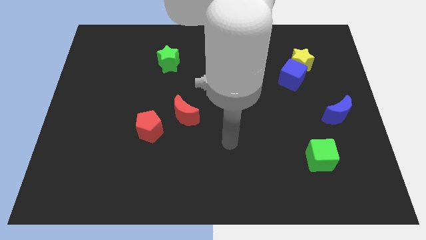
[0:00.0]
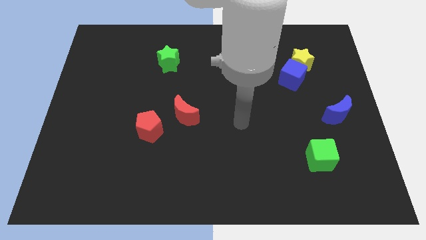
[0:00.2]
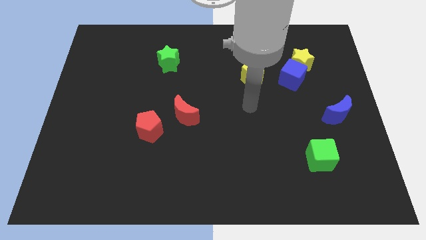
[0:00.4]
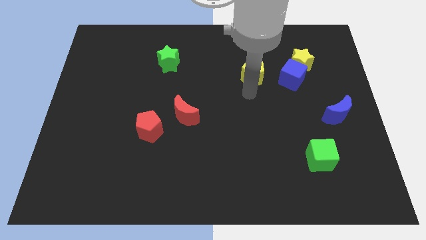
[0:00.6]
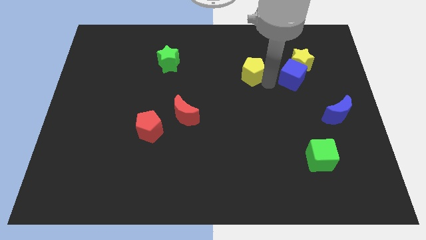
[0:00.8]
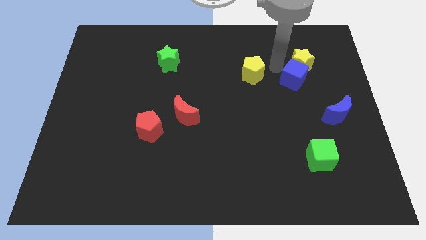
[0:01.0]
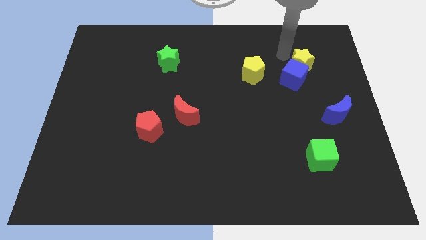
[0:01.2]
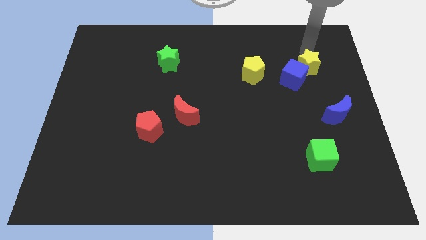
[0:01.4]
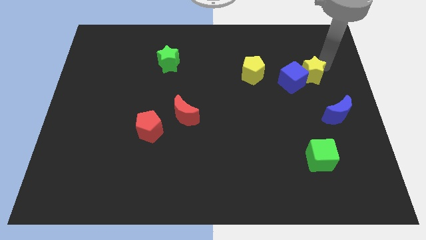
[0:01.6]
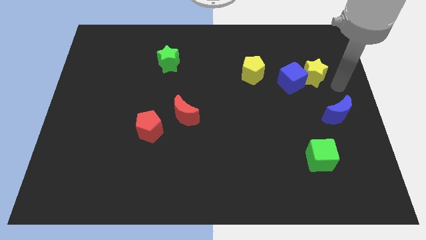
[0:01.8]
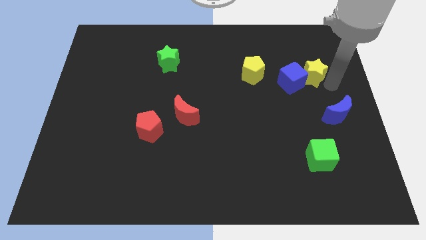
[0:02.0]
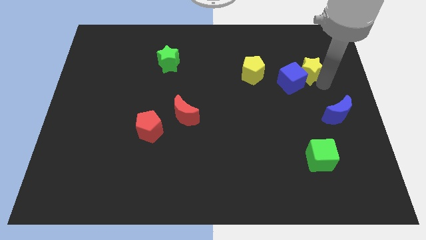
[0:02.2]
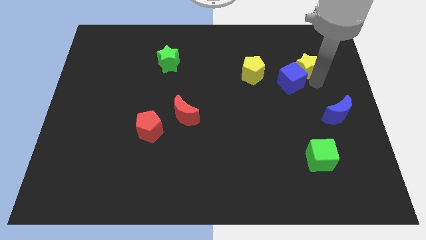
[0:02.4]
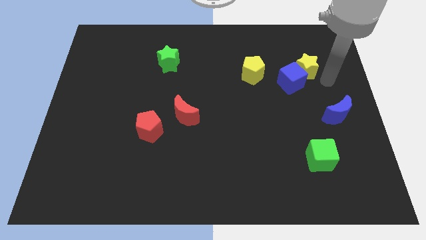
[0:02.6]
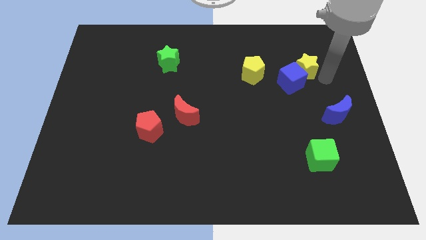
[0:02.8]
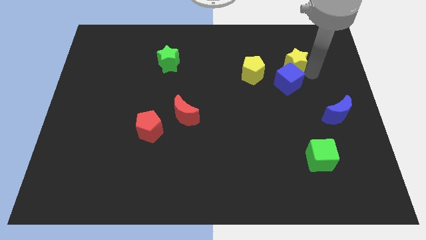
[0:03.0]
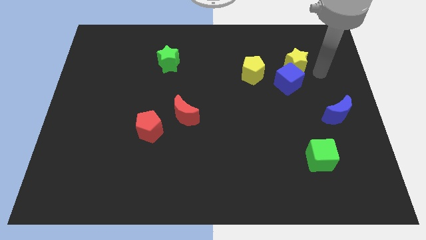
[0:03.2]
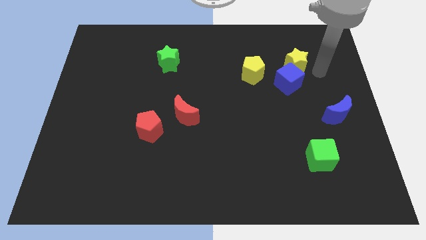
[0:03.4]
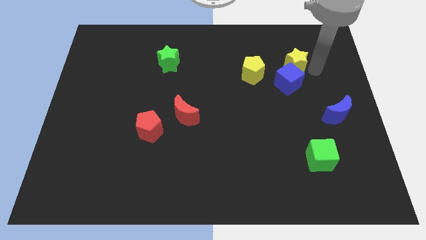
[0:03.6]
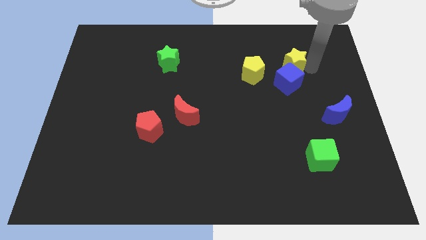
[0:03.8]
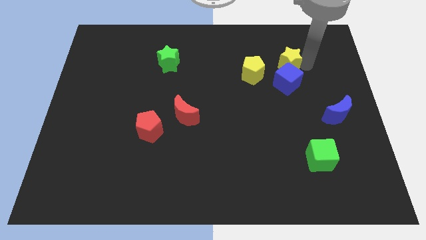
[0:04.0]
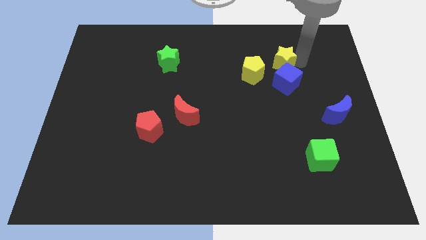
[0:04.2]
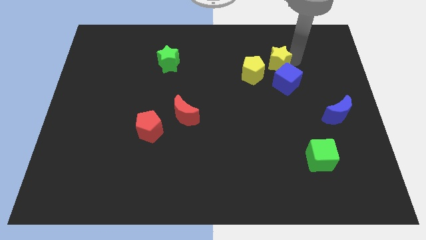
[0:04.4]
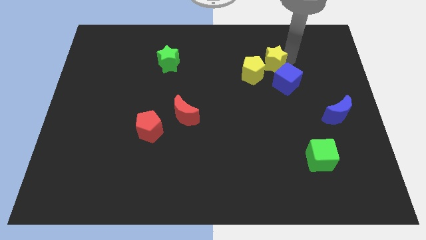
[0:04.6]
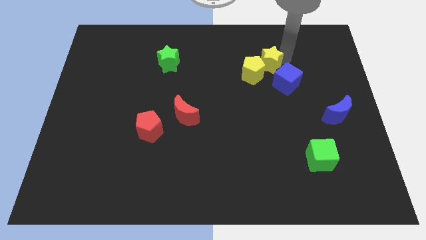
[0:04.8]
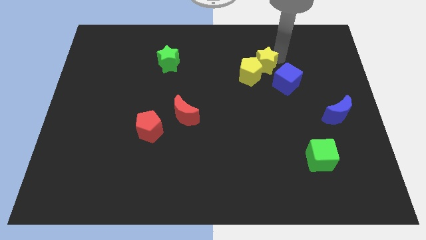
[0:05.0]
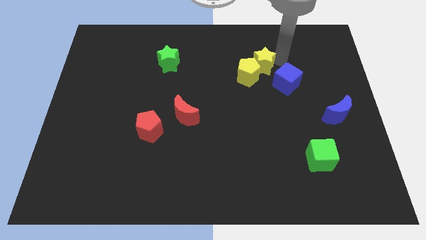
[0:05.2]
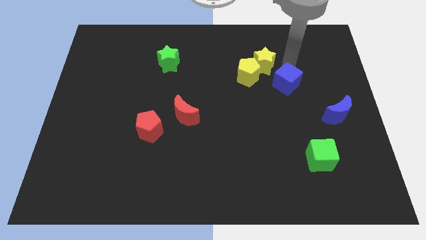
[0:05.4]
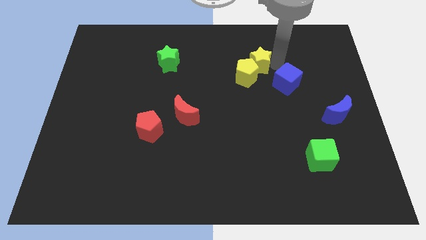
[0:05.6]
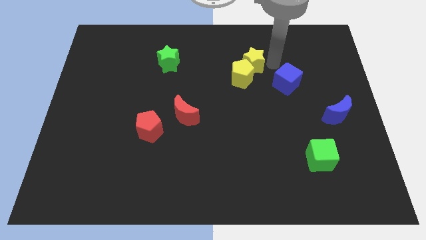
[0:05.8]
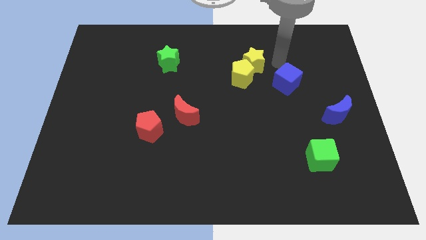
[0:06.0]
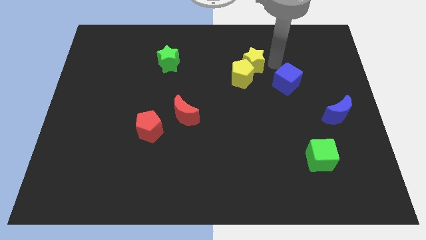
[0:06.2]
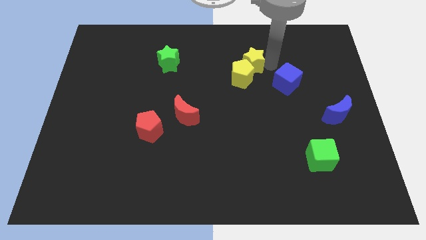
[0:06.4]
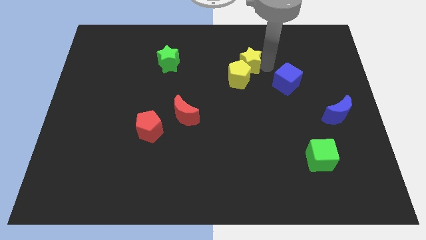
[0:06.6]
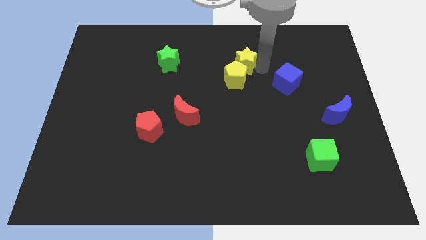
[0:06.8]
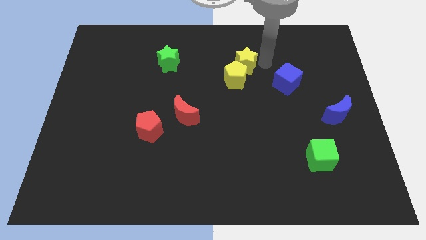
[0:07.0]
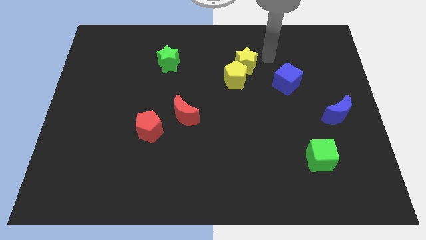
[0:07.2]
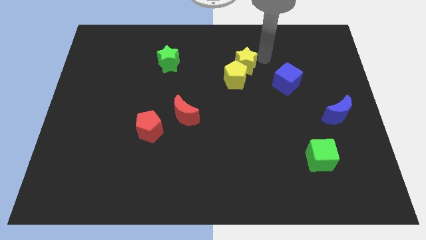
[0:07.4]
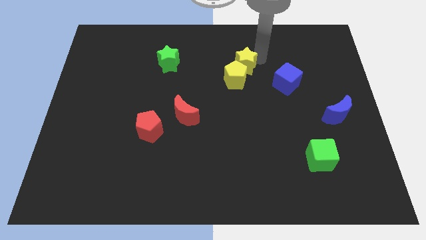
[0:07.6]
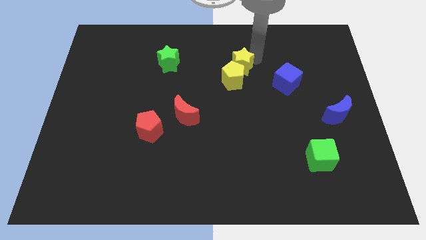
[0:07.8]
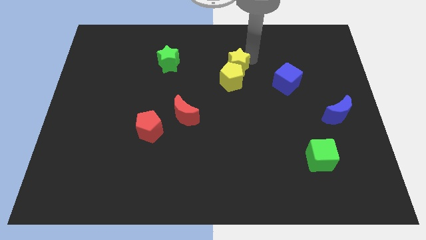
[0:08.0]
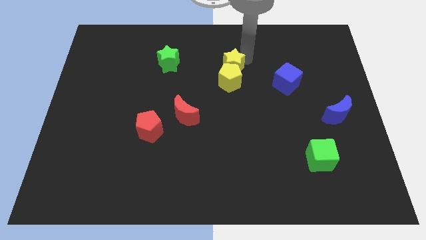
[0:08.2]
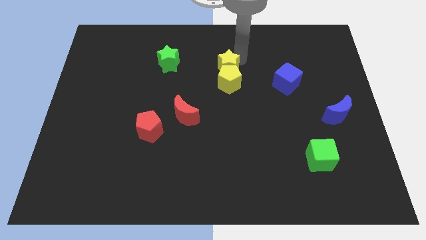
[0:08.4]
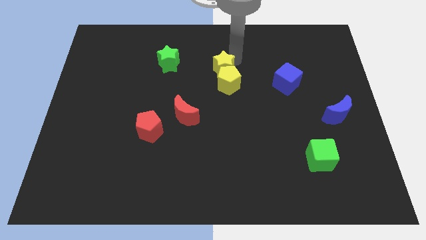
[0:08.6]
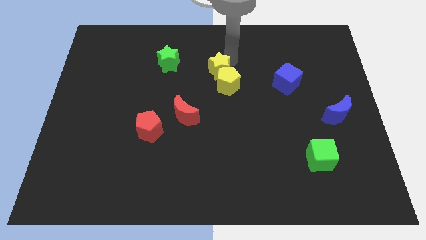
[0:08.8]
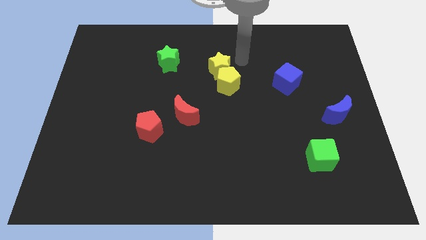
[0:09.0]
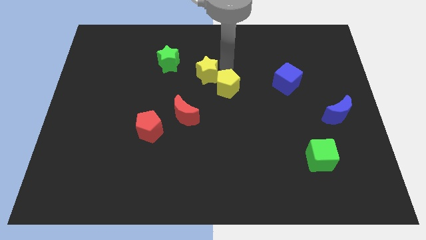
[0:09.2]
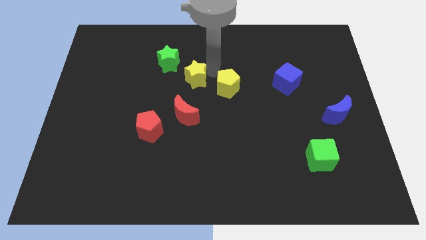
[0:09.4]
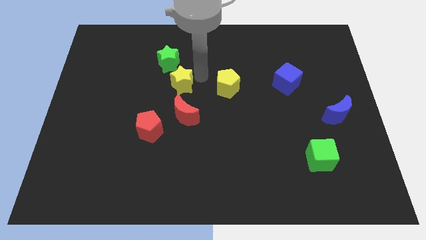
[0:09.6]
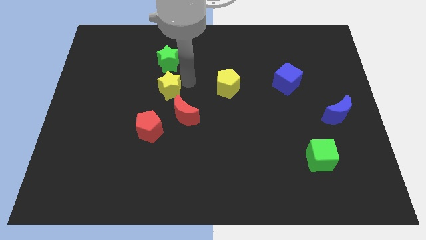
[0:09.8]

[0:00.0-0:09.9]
put the yellow star to the top side of the red pentagon

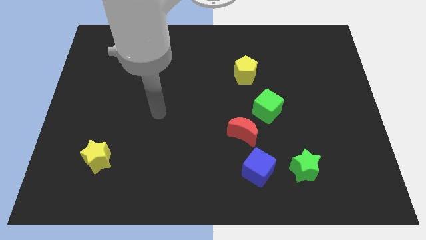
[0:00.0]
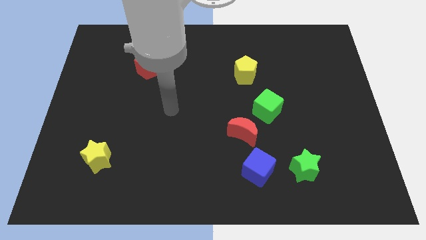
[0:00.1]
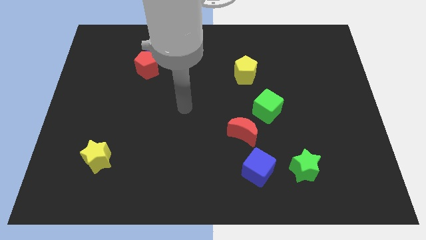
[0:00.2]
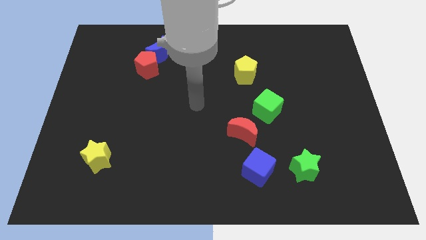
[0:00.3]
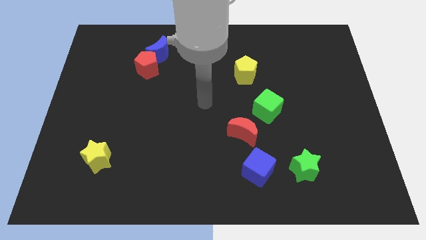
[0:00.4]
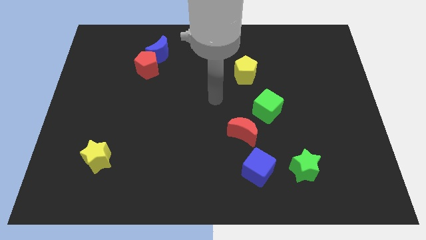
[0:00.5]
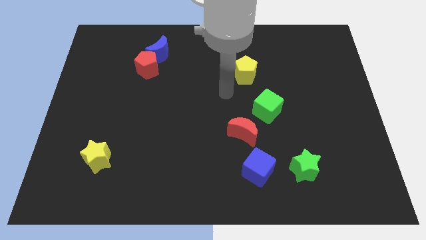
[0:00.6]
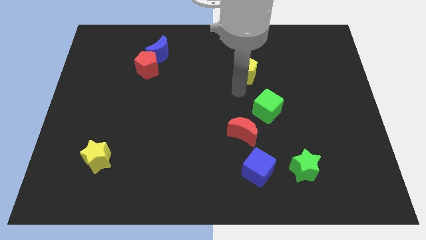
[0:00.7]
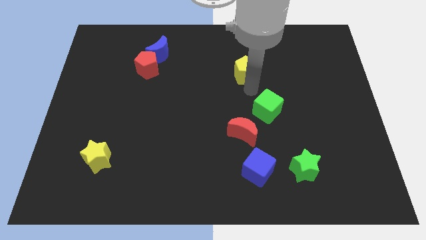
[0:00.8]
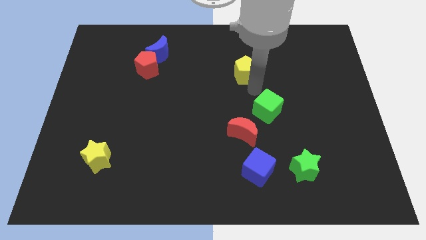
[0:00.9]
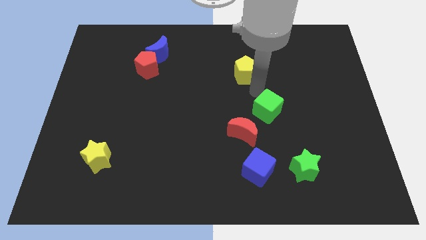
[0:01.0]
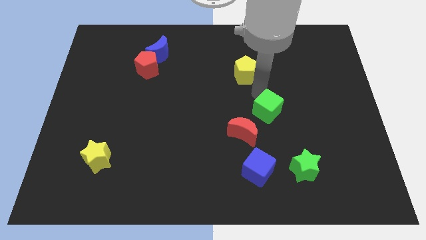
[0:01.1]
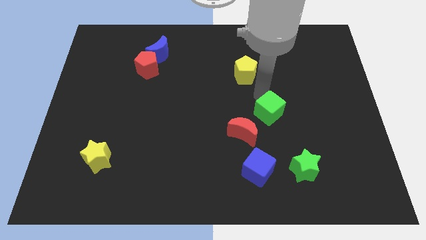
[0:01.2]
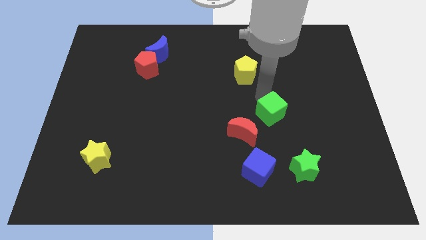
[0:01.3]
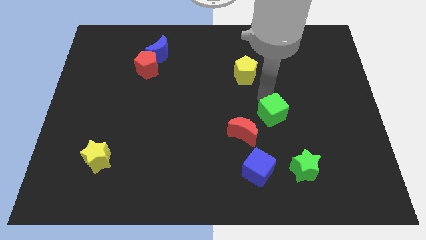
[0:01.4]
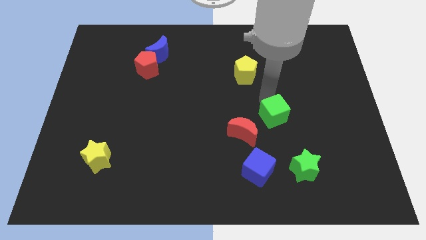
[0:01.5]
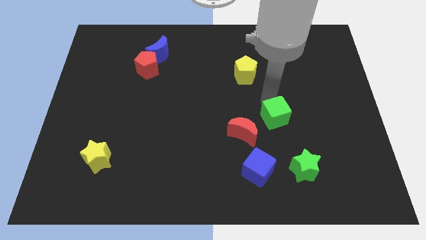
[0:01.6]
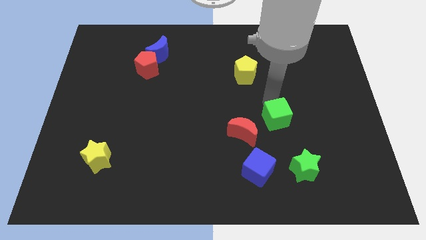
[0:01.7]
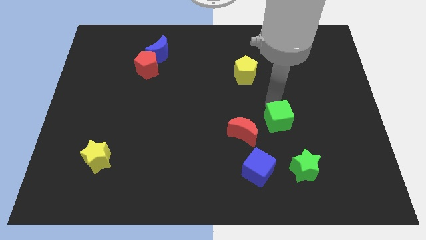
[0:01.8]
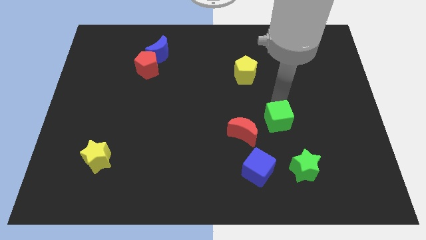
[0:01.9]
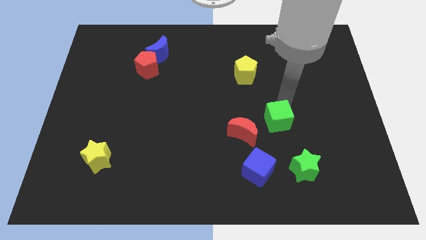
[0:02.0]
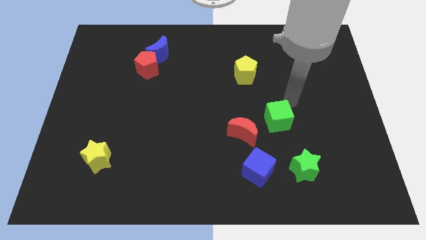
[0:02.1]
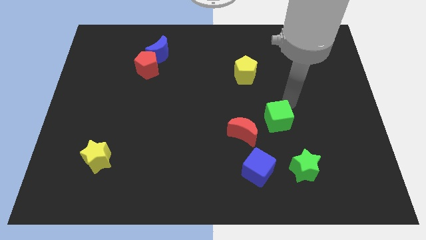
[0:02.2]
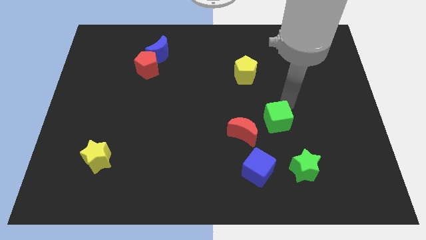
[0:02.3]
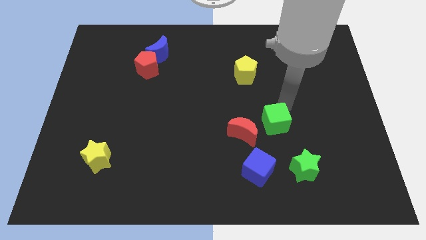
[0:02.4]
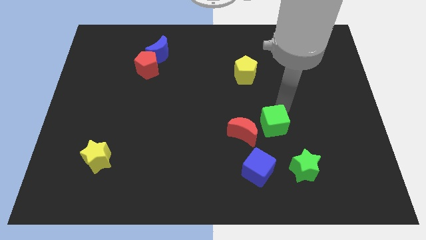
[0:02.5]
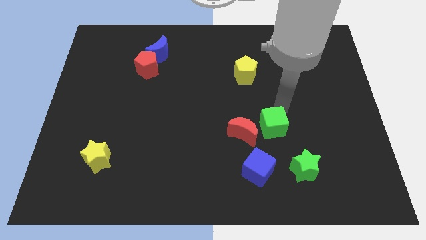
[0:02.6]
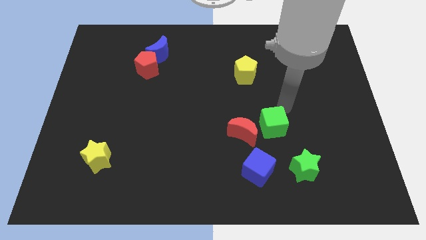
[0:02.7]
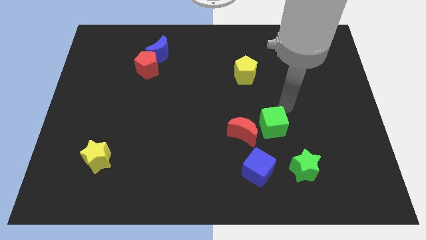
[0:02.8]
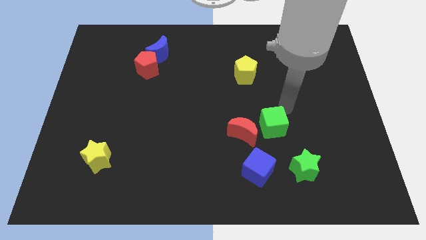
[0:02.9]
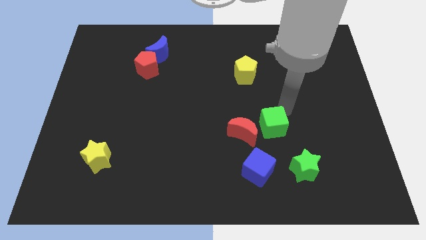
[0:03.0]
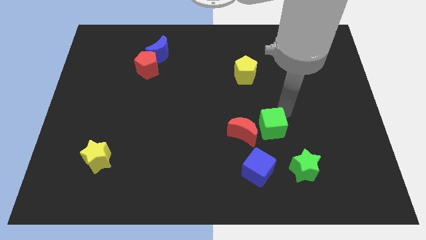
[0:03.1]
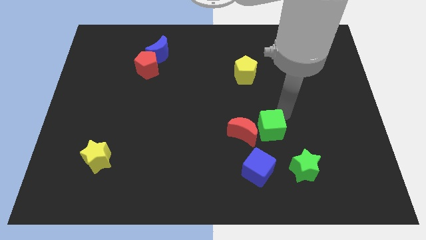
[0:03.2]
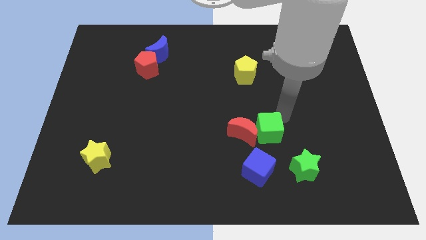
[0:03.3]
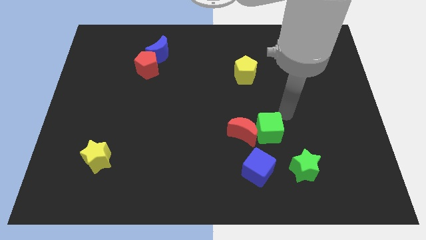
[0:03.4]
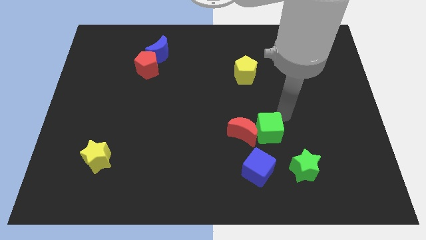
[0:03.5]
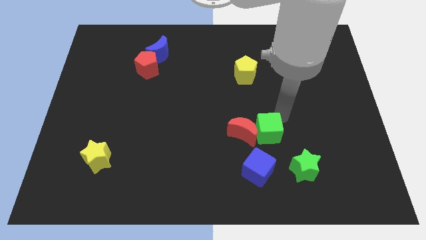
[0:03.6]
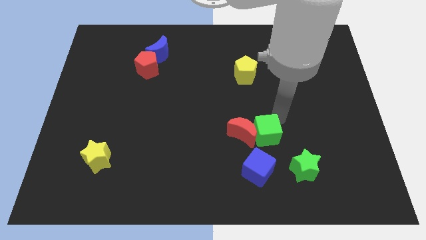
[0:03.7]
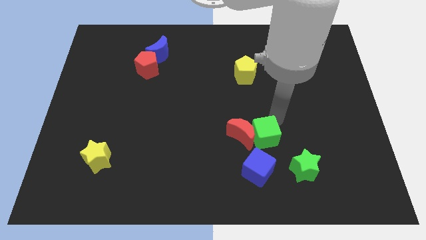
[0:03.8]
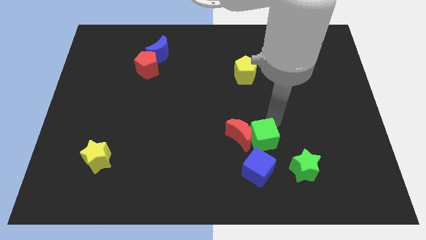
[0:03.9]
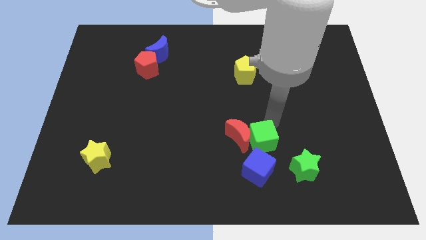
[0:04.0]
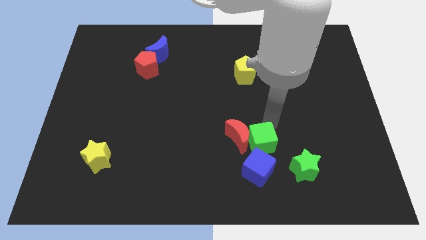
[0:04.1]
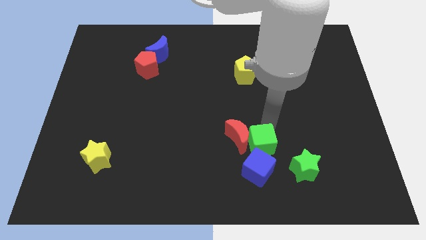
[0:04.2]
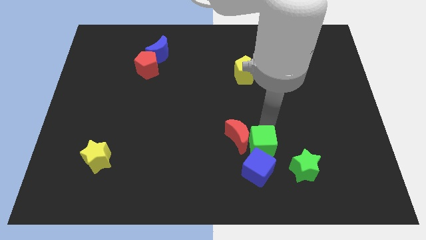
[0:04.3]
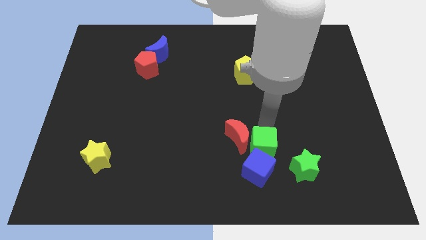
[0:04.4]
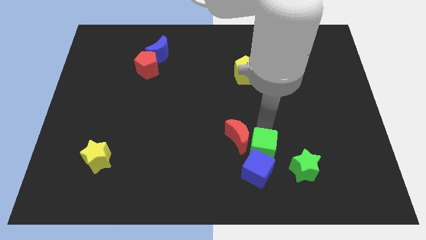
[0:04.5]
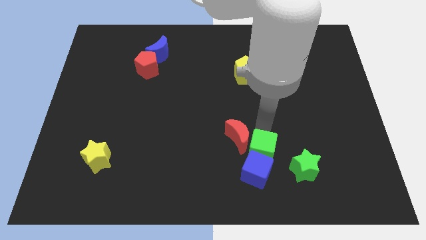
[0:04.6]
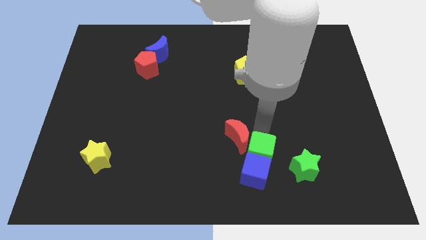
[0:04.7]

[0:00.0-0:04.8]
move the green cube to the bottom side of the red moon
